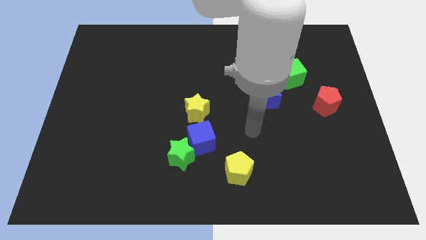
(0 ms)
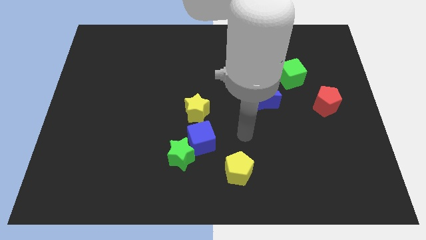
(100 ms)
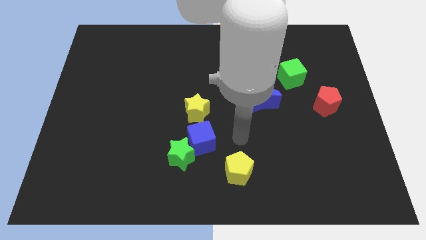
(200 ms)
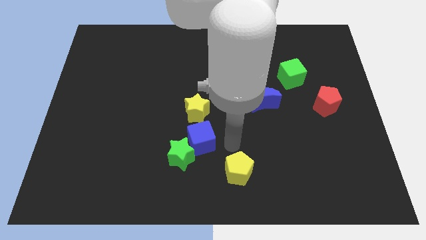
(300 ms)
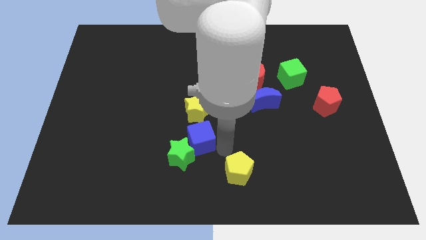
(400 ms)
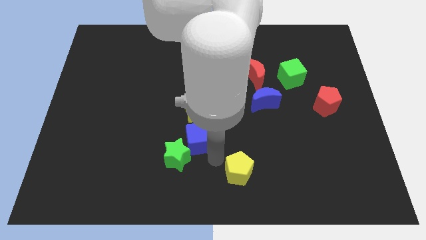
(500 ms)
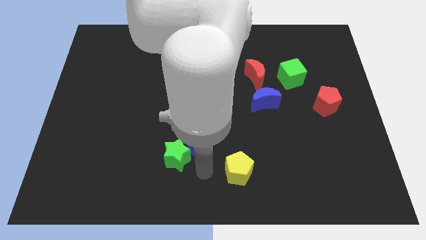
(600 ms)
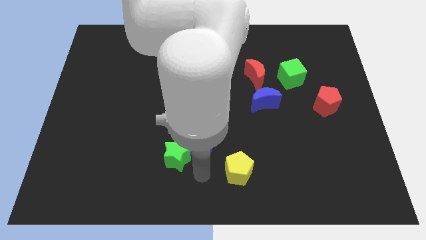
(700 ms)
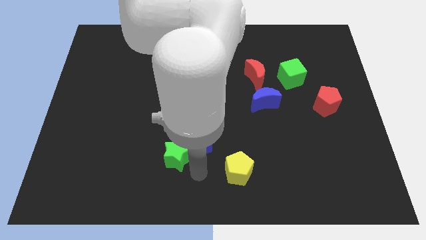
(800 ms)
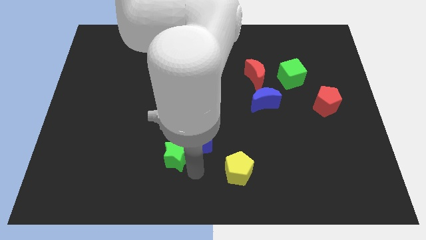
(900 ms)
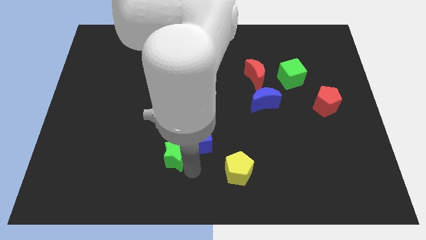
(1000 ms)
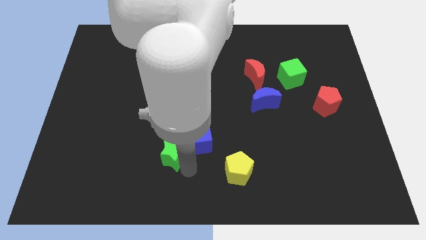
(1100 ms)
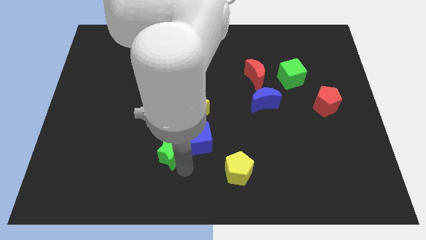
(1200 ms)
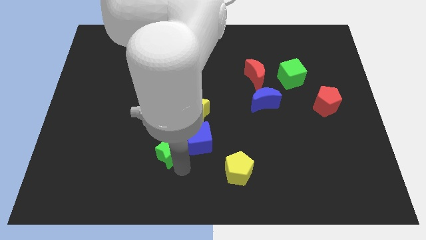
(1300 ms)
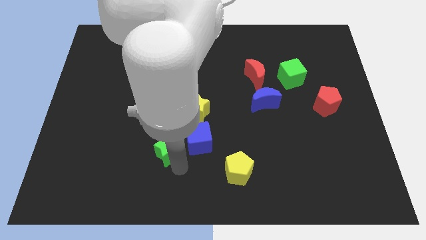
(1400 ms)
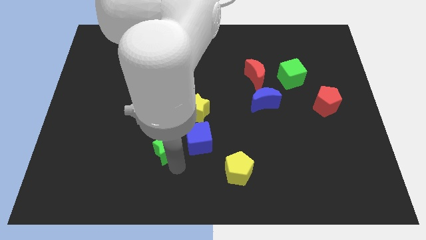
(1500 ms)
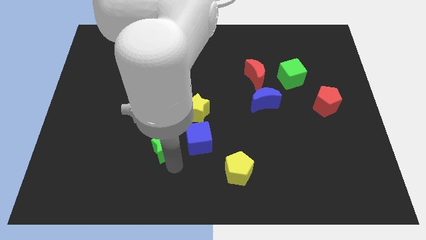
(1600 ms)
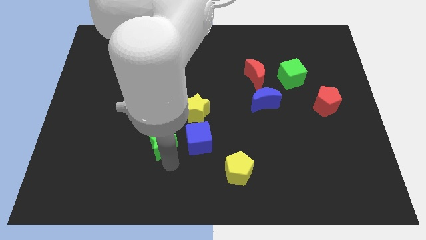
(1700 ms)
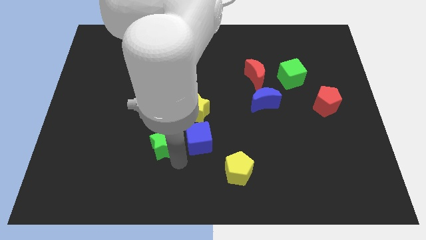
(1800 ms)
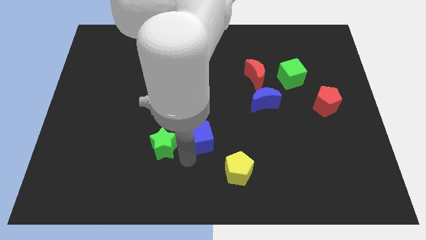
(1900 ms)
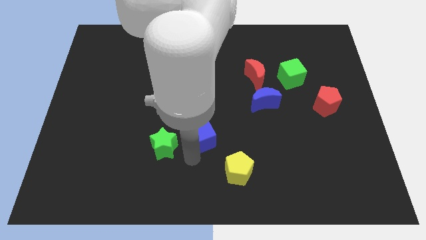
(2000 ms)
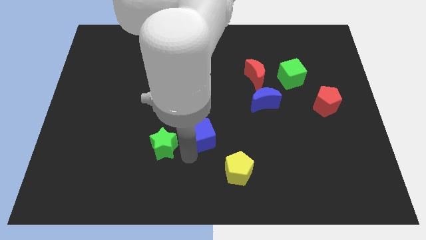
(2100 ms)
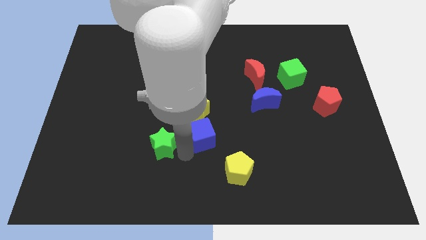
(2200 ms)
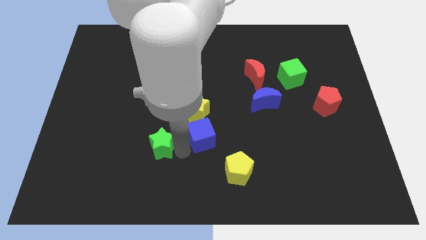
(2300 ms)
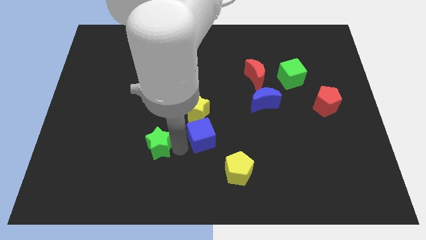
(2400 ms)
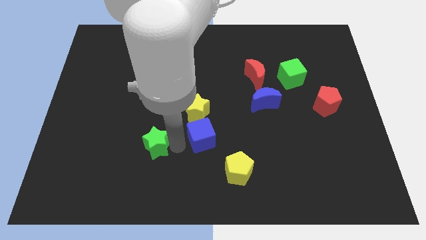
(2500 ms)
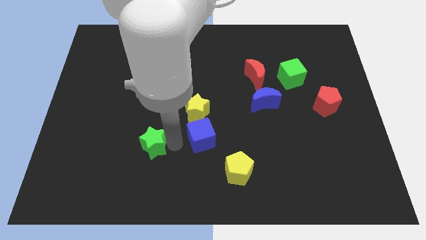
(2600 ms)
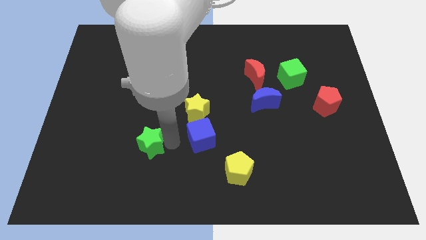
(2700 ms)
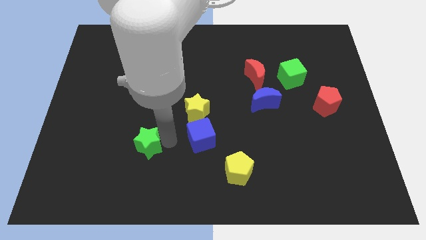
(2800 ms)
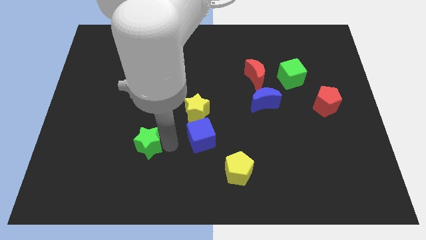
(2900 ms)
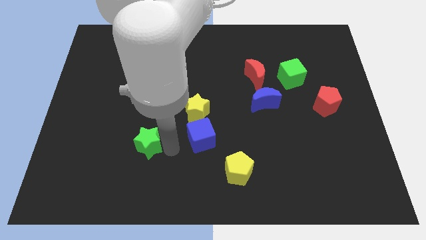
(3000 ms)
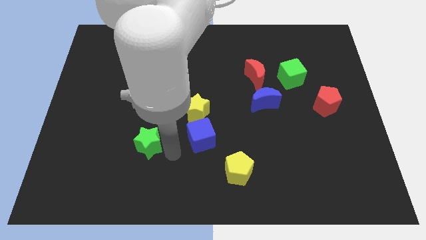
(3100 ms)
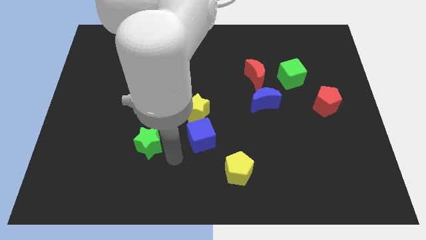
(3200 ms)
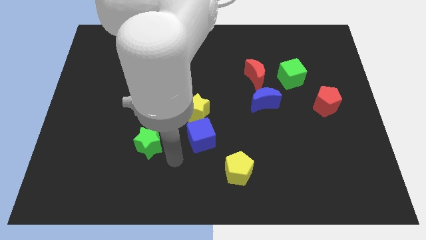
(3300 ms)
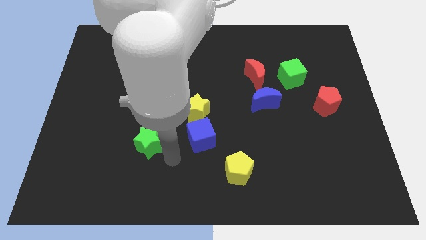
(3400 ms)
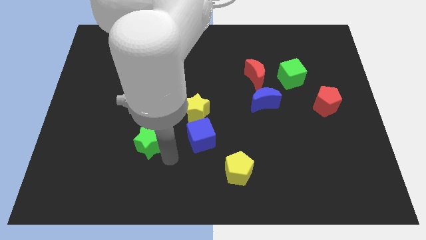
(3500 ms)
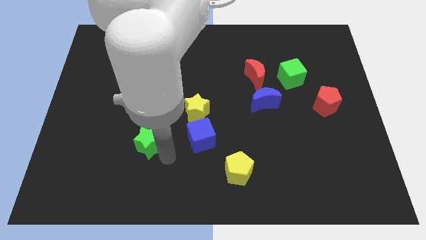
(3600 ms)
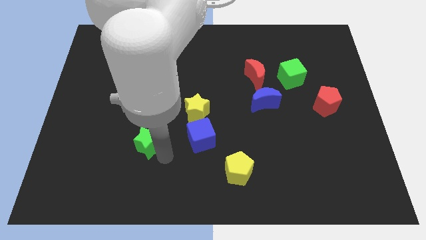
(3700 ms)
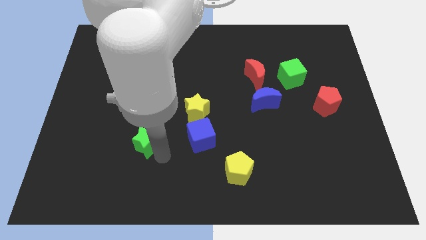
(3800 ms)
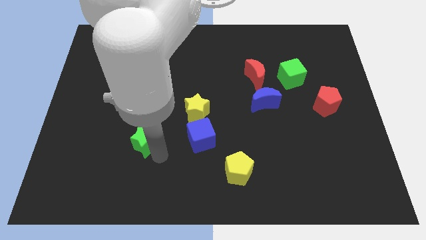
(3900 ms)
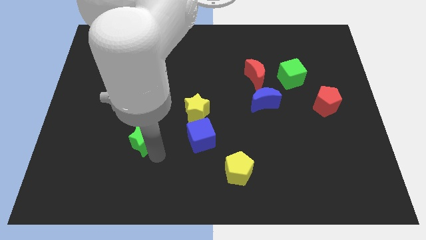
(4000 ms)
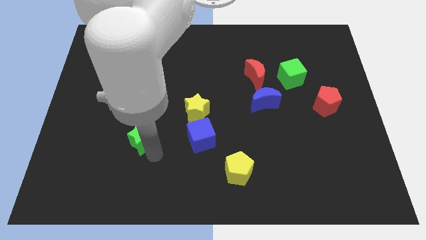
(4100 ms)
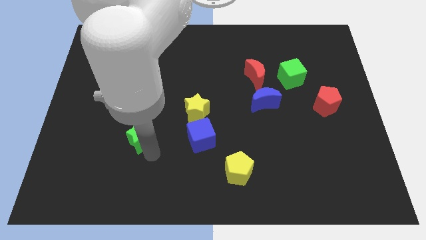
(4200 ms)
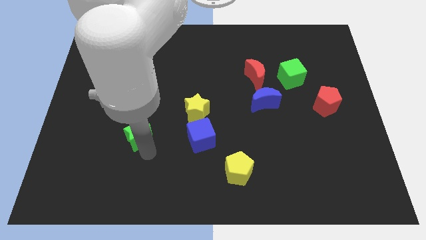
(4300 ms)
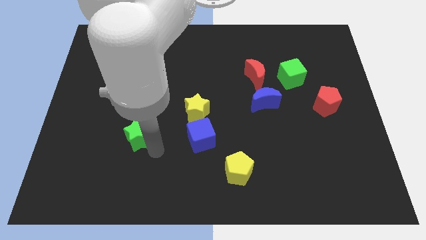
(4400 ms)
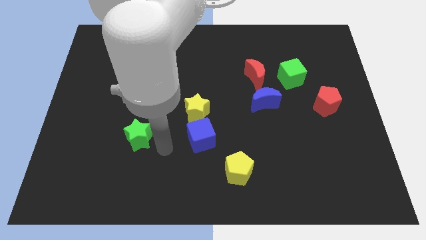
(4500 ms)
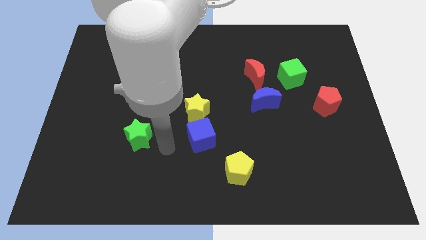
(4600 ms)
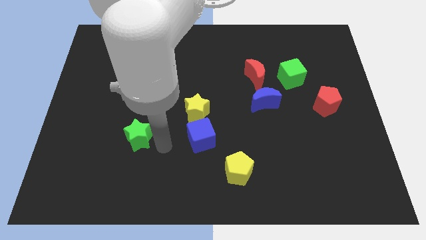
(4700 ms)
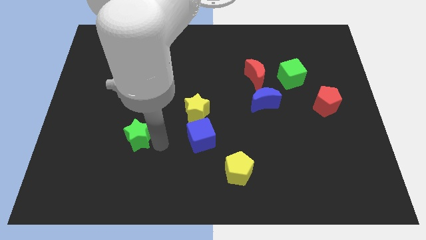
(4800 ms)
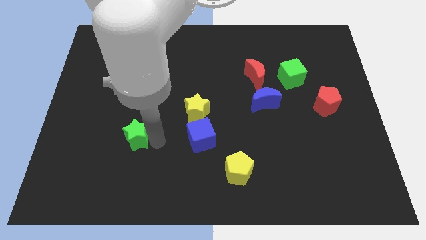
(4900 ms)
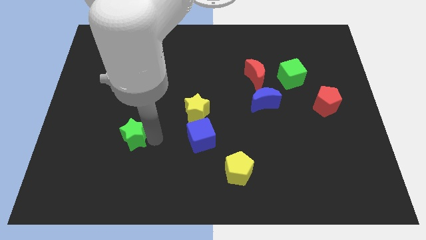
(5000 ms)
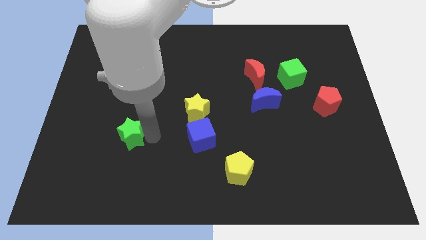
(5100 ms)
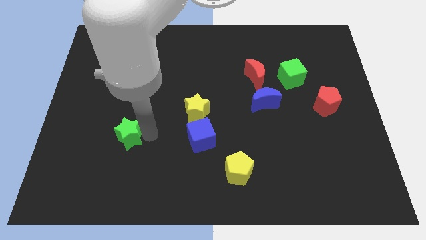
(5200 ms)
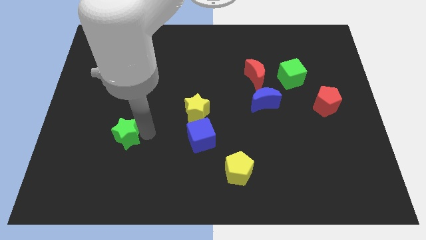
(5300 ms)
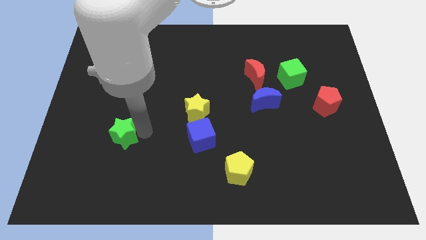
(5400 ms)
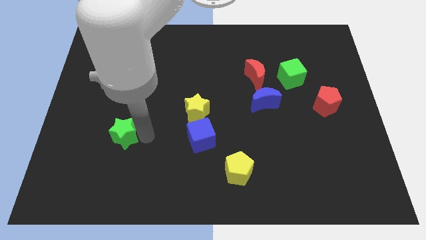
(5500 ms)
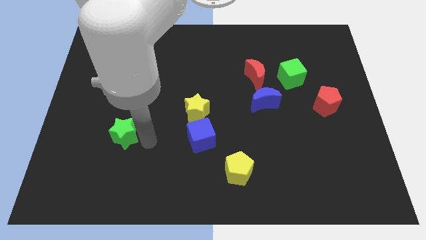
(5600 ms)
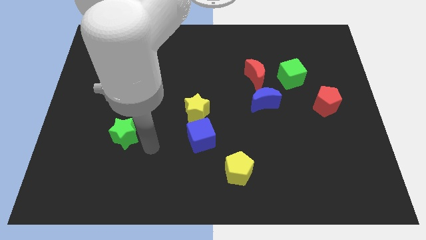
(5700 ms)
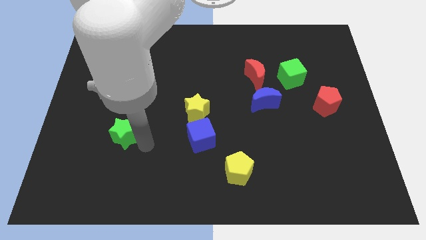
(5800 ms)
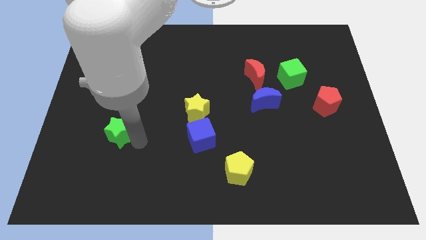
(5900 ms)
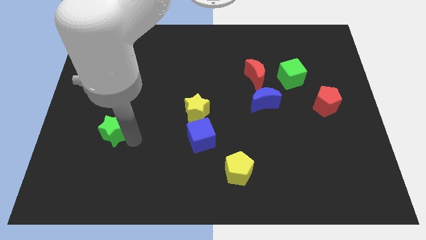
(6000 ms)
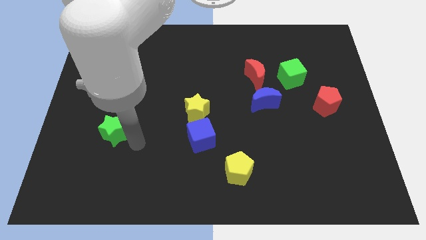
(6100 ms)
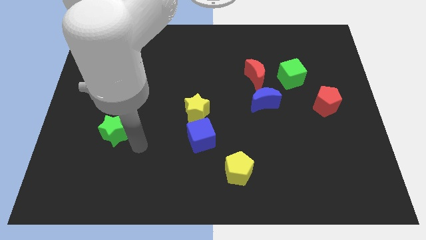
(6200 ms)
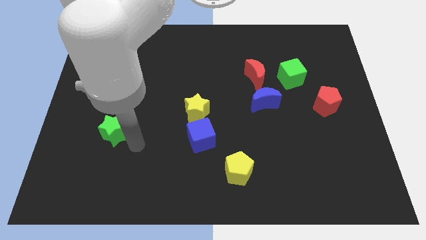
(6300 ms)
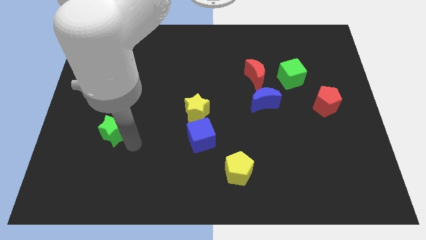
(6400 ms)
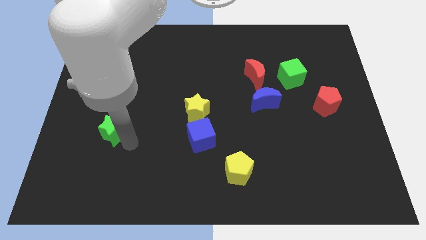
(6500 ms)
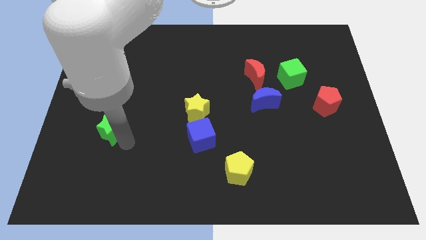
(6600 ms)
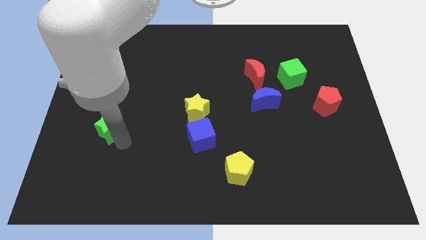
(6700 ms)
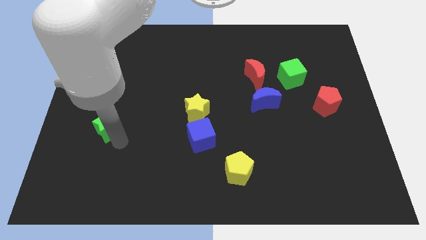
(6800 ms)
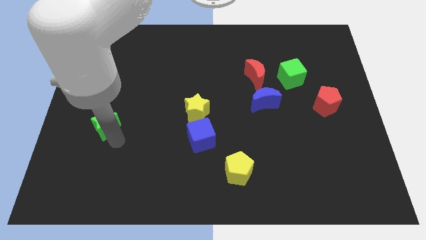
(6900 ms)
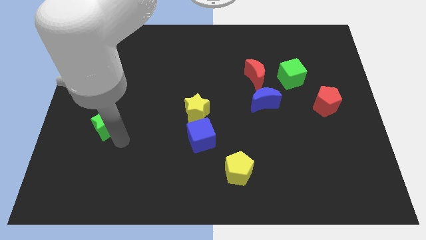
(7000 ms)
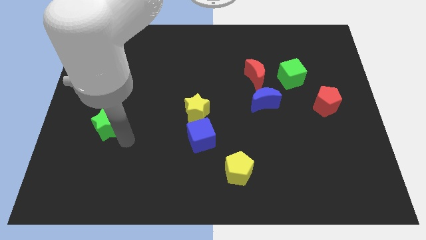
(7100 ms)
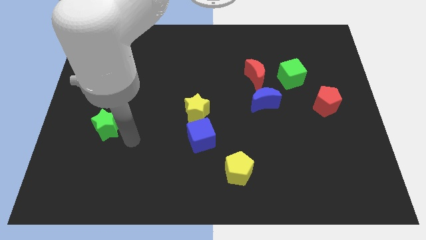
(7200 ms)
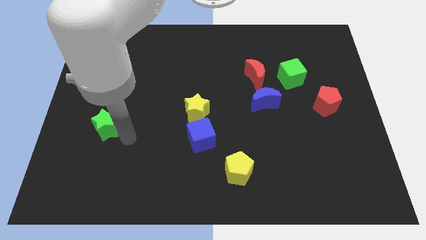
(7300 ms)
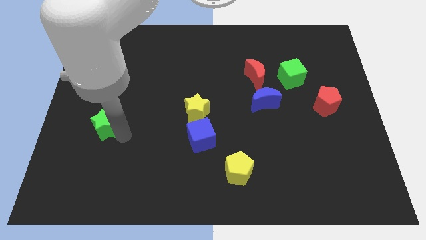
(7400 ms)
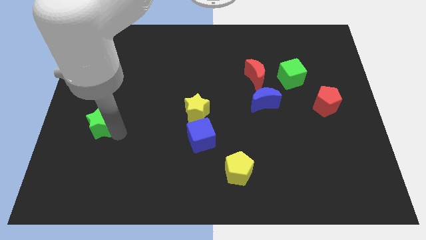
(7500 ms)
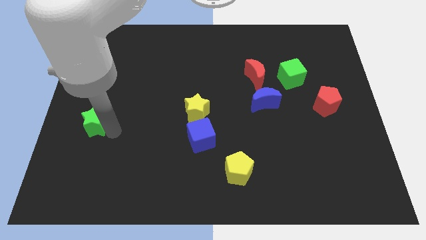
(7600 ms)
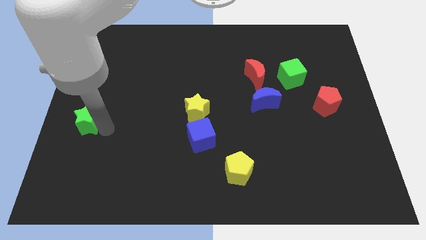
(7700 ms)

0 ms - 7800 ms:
move the green star to the center left
